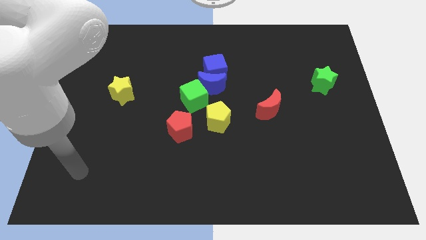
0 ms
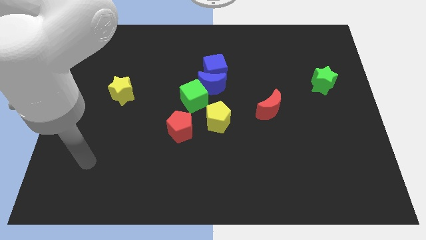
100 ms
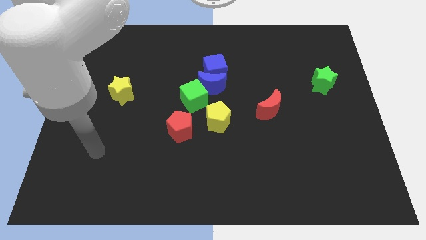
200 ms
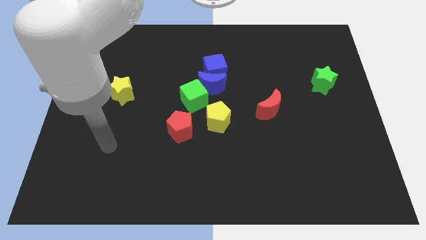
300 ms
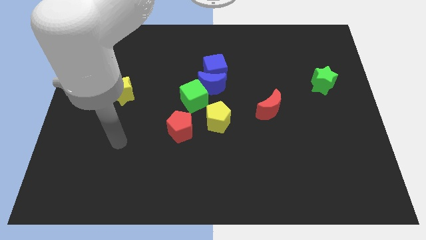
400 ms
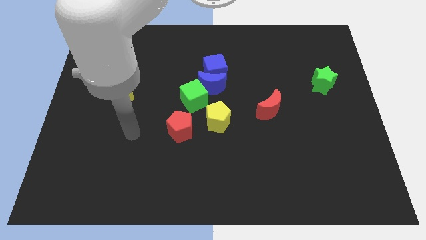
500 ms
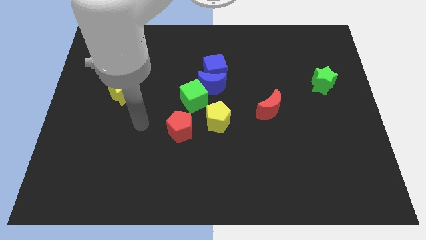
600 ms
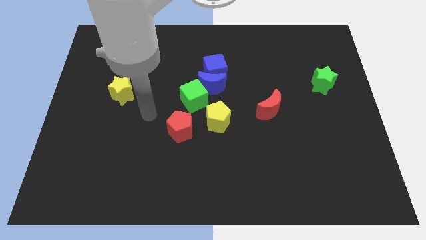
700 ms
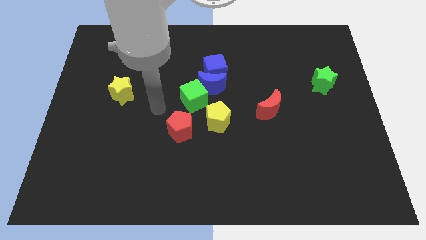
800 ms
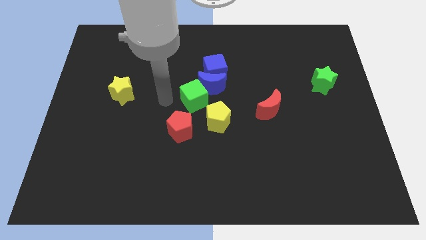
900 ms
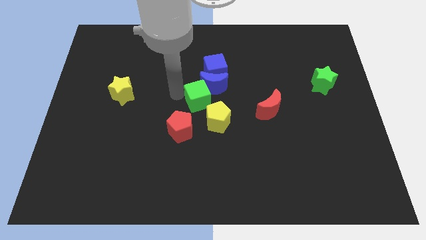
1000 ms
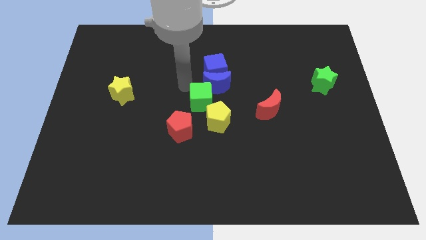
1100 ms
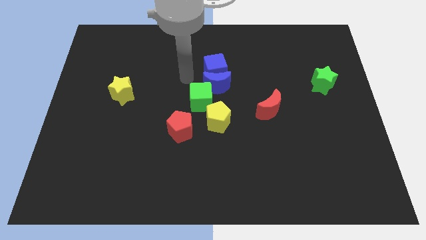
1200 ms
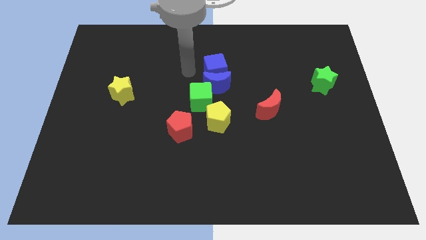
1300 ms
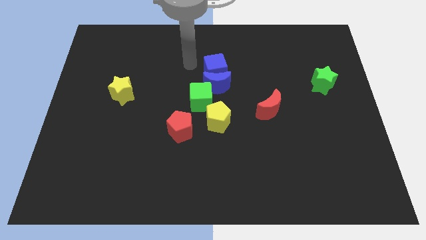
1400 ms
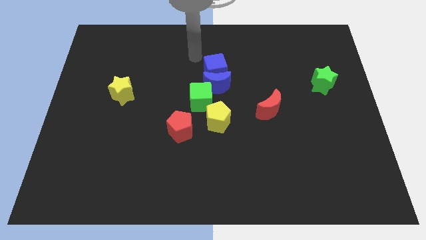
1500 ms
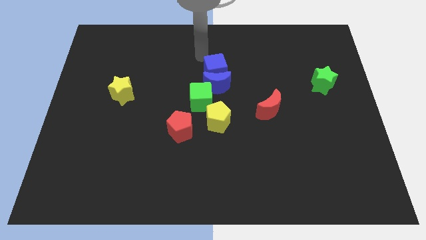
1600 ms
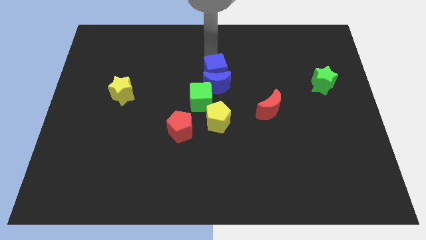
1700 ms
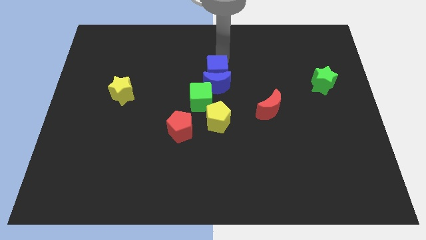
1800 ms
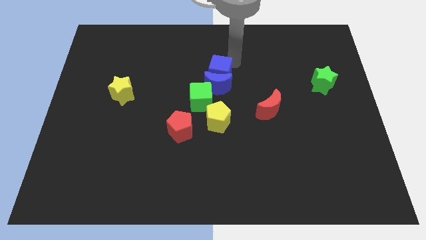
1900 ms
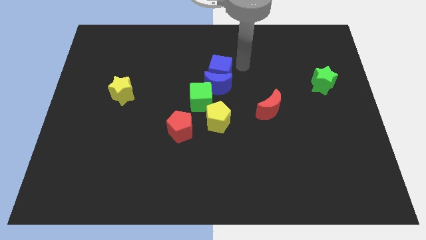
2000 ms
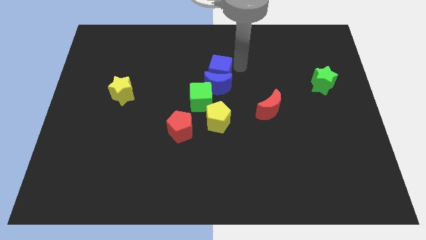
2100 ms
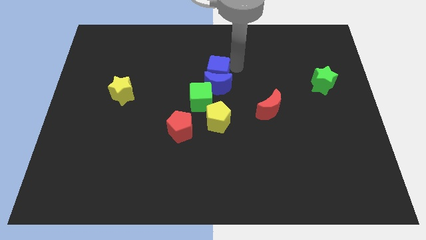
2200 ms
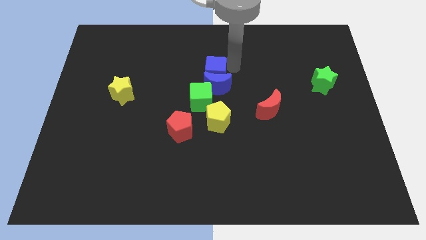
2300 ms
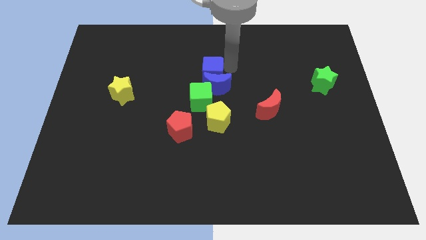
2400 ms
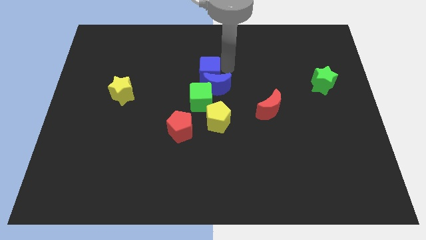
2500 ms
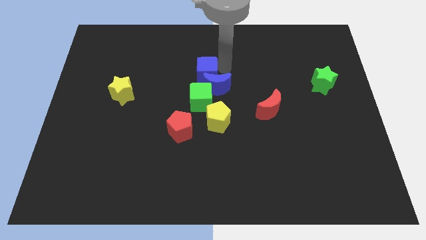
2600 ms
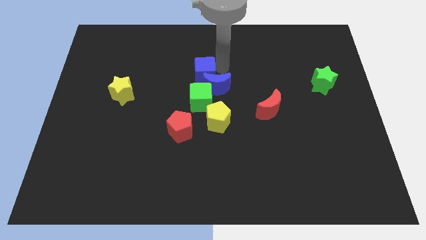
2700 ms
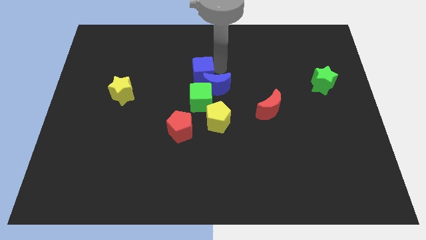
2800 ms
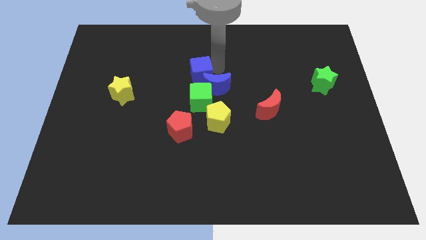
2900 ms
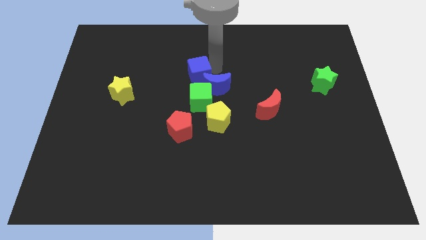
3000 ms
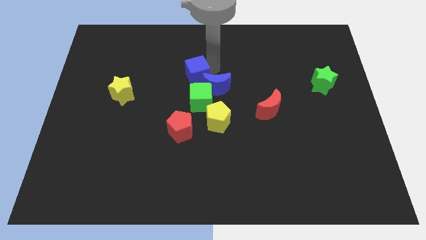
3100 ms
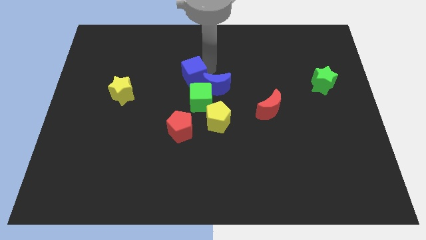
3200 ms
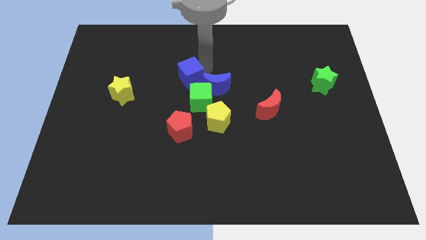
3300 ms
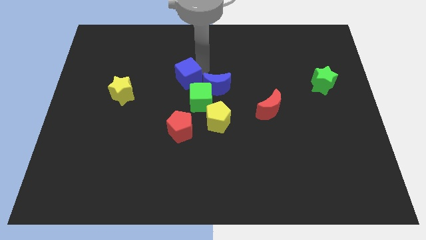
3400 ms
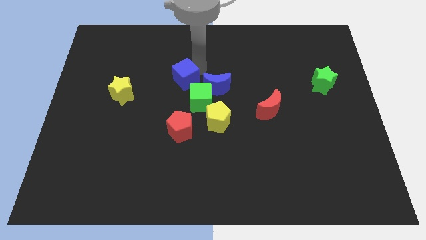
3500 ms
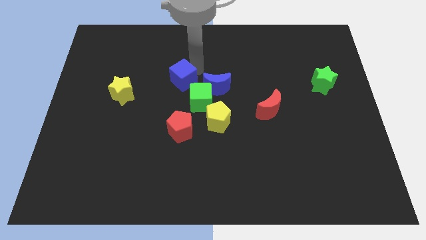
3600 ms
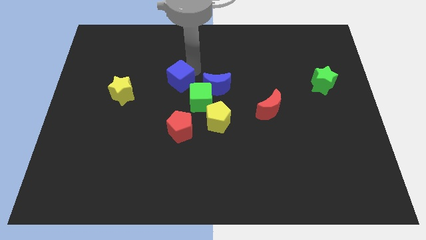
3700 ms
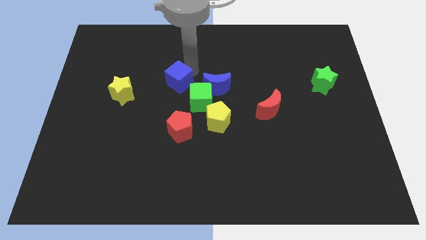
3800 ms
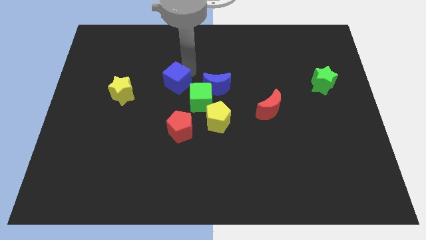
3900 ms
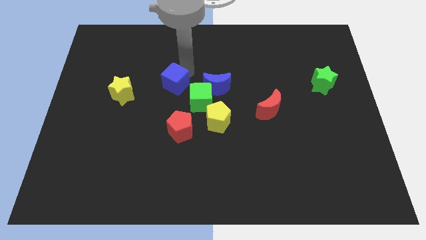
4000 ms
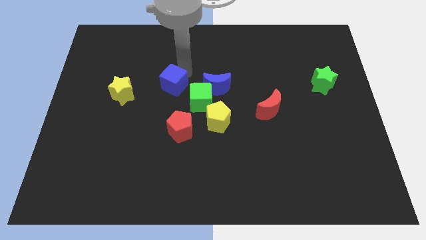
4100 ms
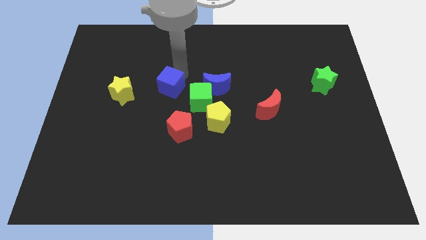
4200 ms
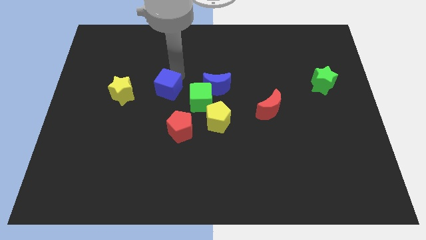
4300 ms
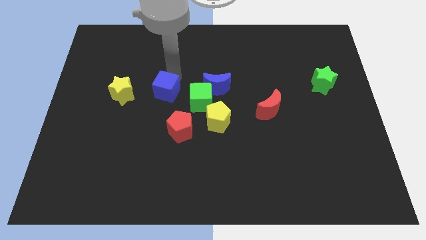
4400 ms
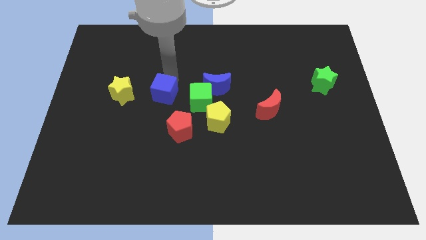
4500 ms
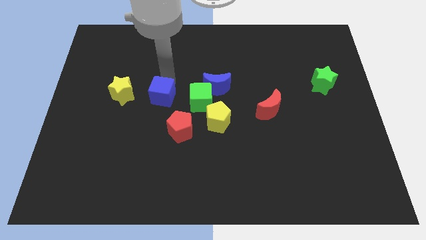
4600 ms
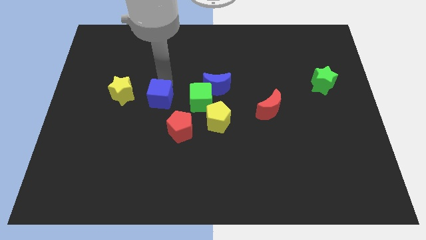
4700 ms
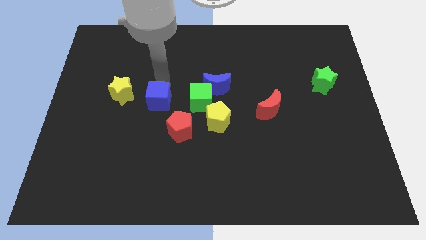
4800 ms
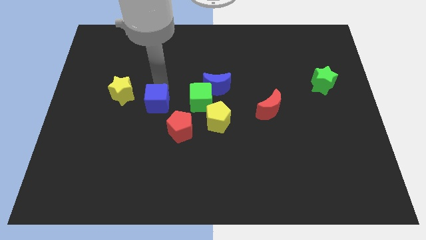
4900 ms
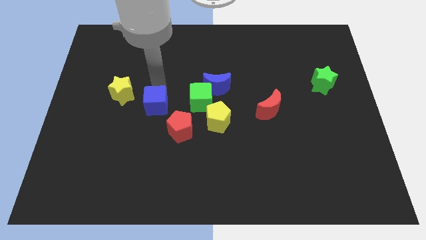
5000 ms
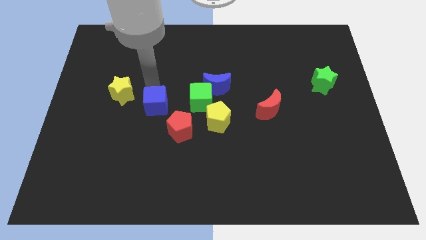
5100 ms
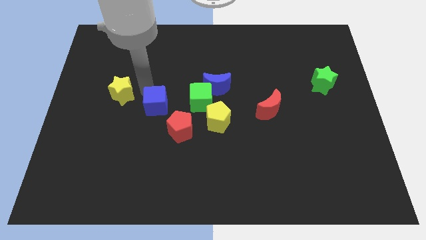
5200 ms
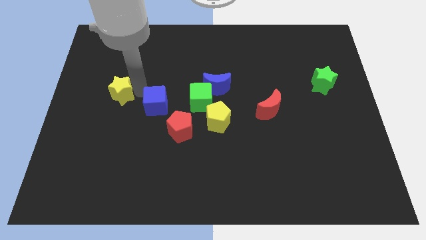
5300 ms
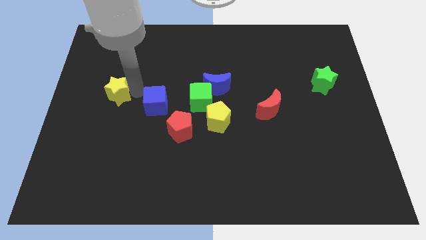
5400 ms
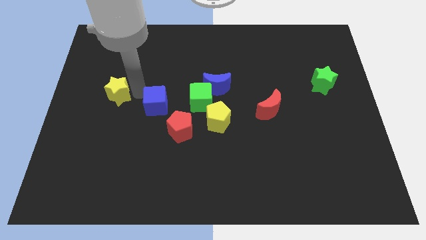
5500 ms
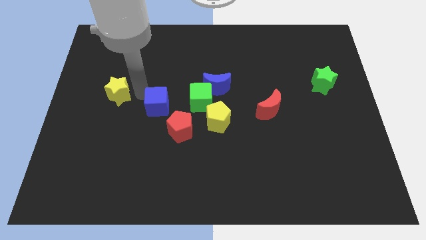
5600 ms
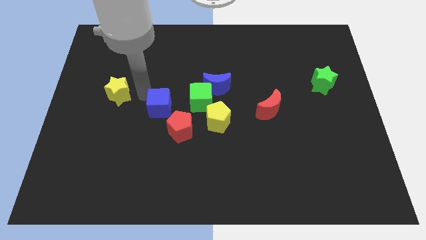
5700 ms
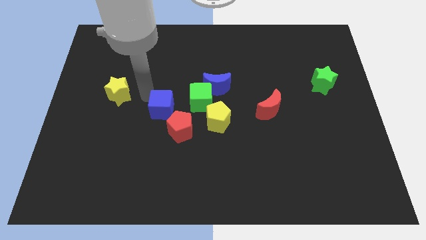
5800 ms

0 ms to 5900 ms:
slide the blue cube to the bottom left side of the green cube

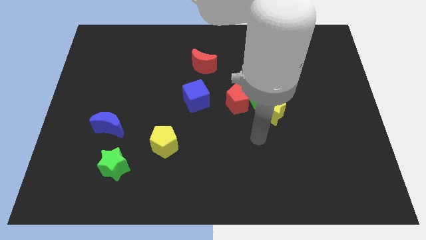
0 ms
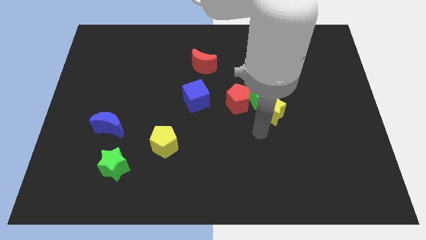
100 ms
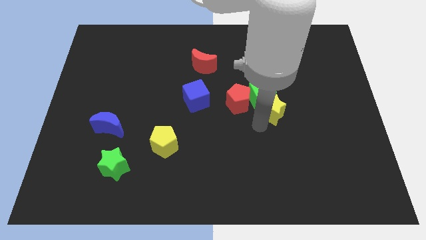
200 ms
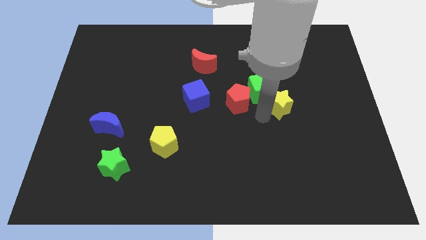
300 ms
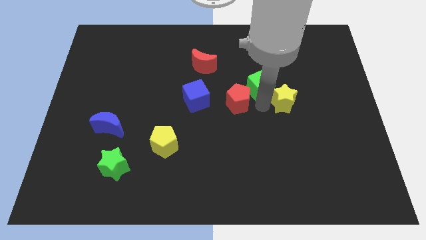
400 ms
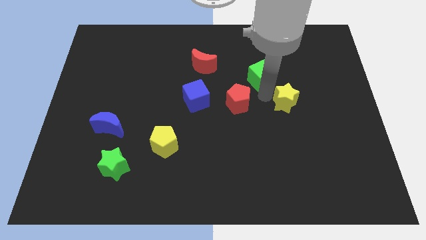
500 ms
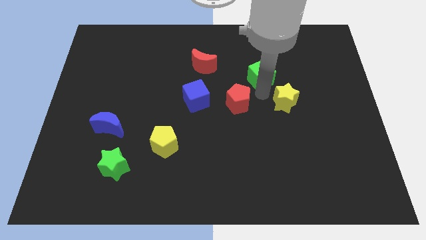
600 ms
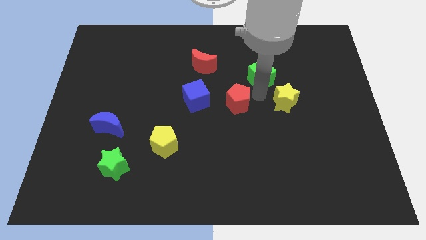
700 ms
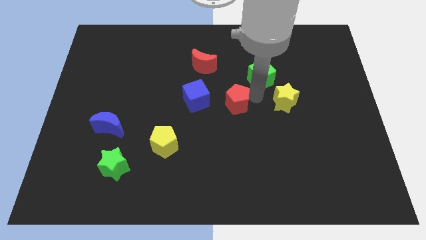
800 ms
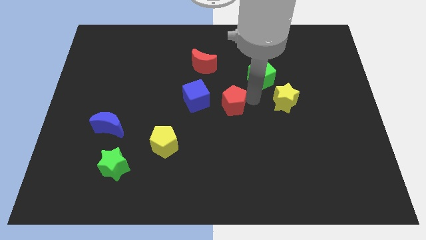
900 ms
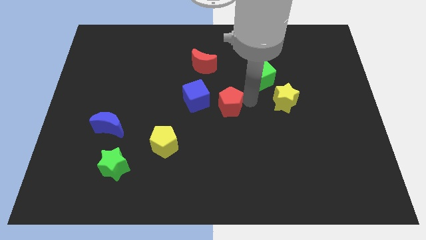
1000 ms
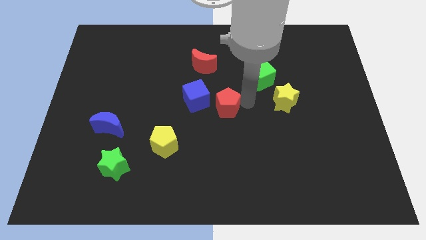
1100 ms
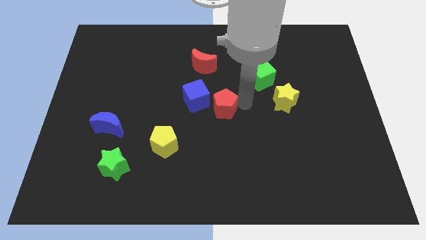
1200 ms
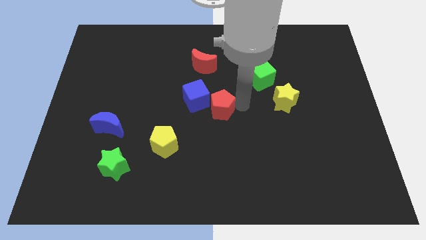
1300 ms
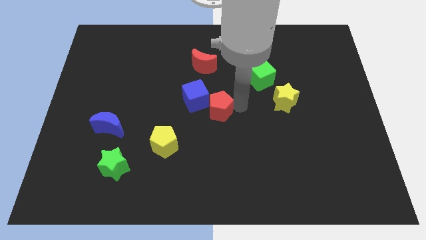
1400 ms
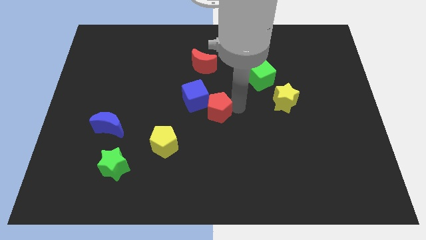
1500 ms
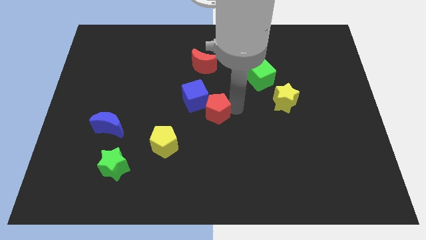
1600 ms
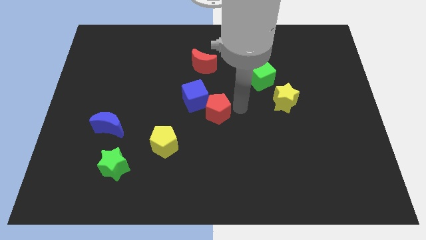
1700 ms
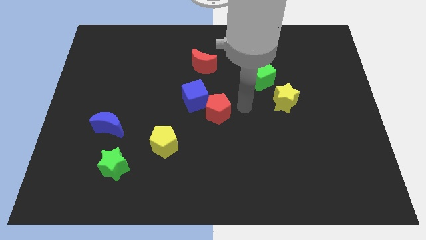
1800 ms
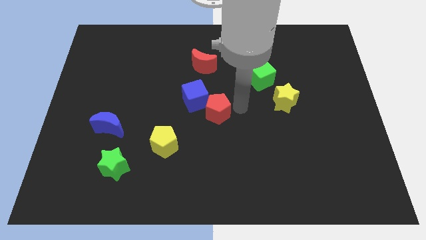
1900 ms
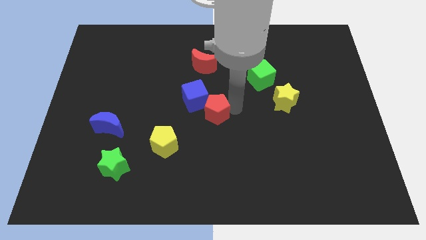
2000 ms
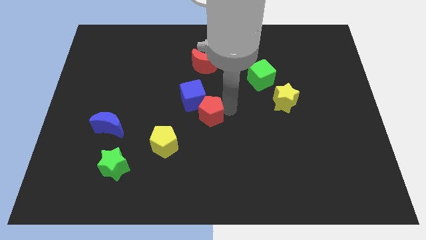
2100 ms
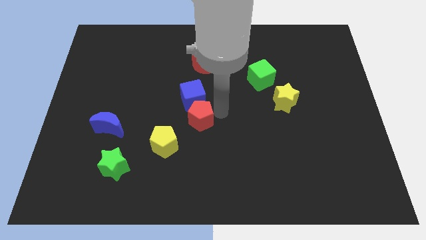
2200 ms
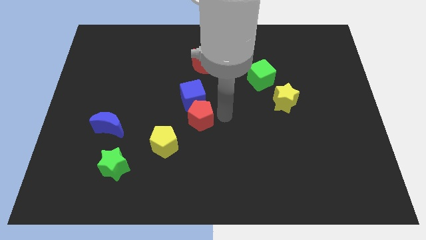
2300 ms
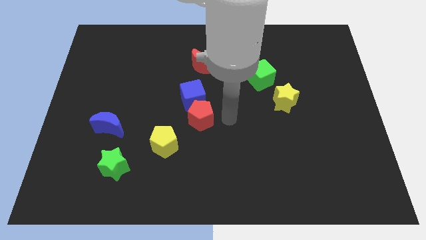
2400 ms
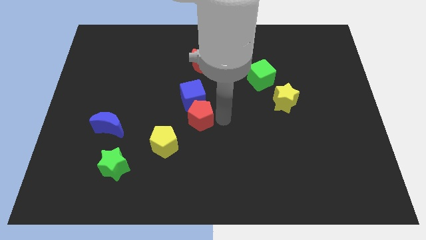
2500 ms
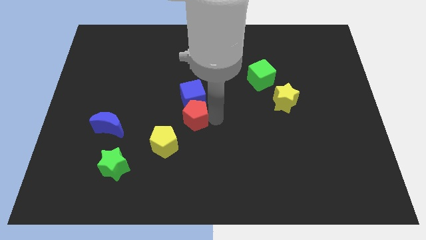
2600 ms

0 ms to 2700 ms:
move the red pentagon to the bottom left side of the blue cube
